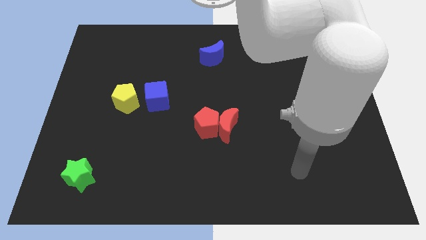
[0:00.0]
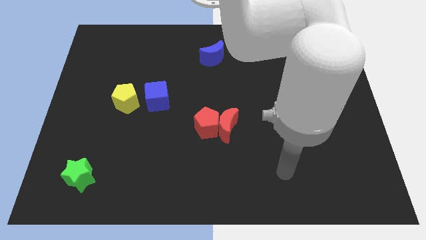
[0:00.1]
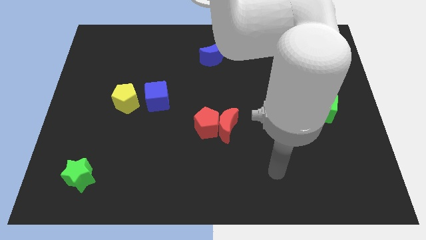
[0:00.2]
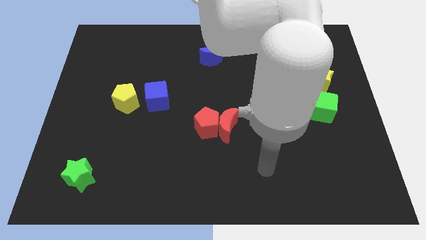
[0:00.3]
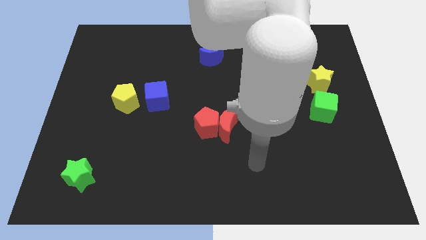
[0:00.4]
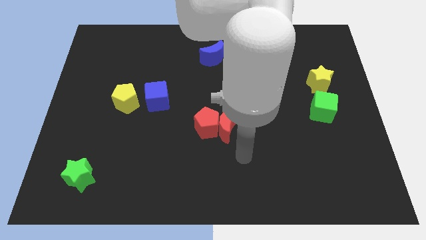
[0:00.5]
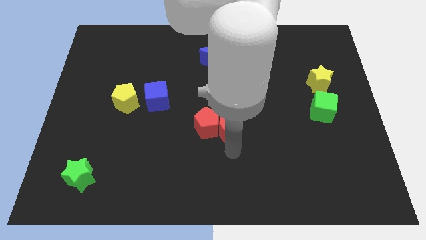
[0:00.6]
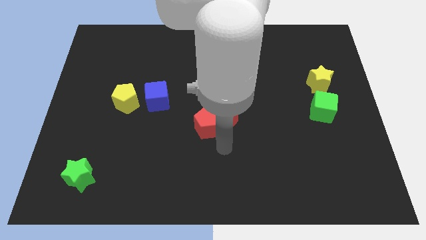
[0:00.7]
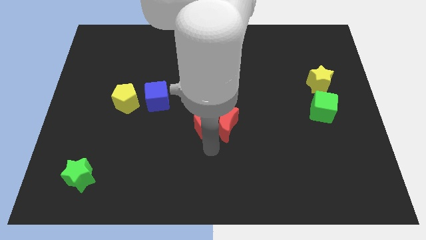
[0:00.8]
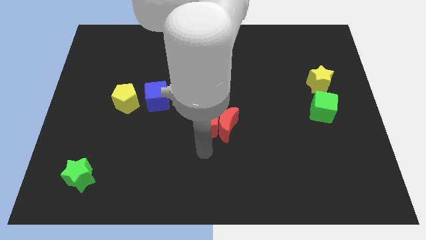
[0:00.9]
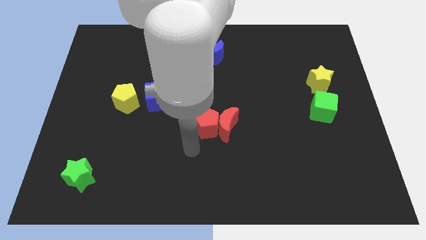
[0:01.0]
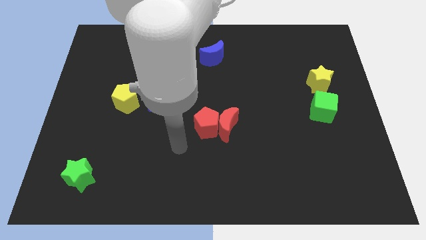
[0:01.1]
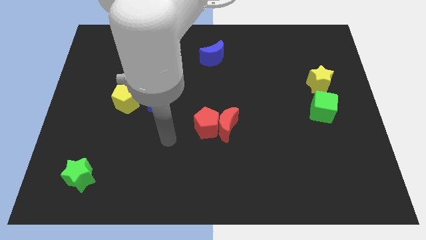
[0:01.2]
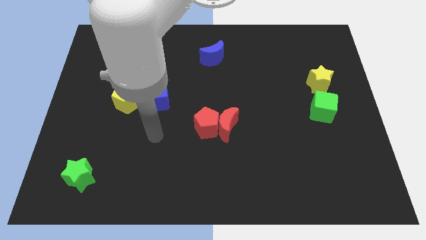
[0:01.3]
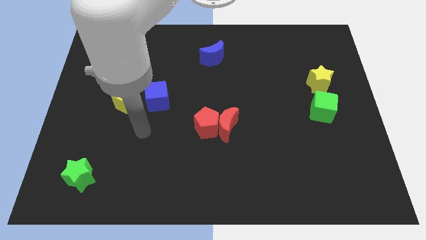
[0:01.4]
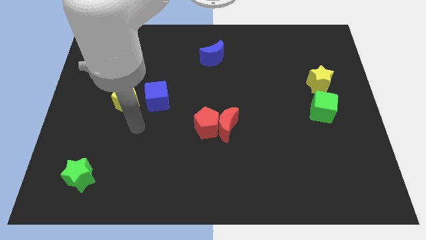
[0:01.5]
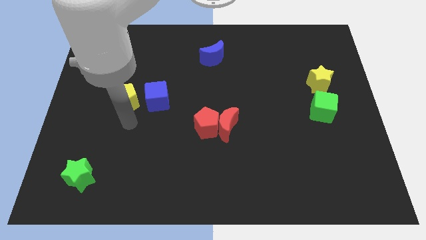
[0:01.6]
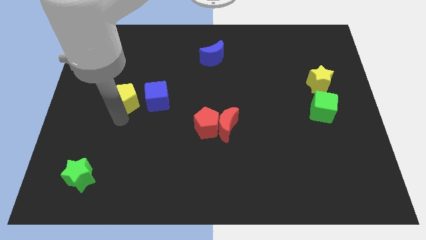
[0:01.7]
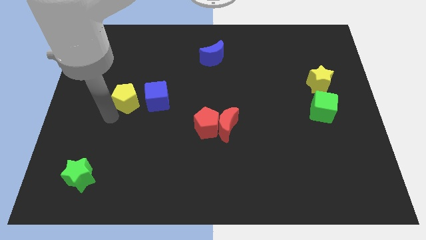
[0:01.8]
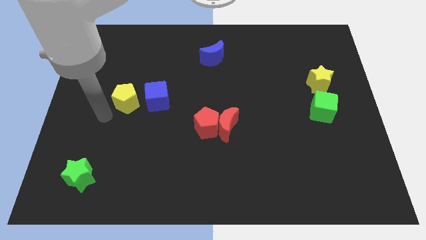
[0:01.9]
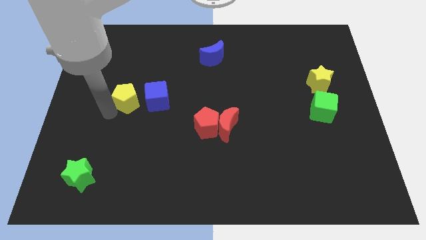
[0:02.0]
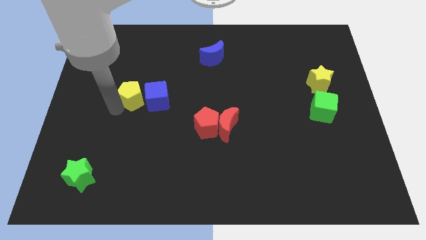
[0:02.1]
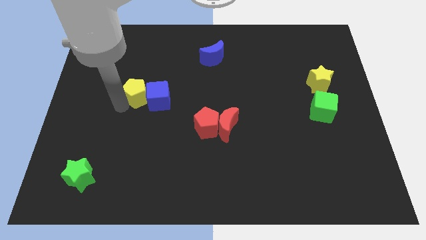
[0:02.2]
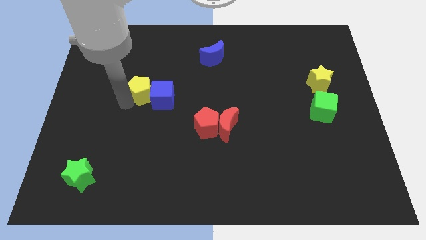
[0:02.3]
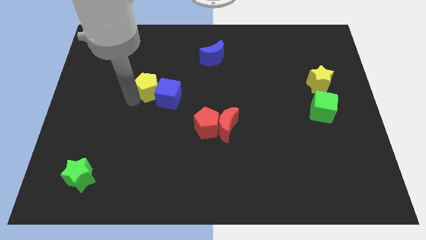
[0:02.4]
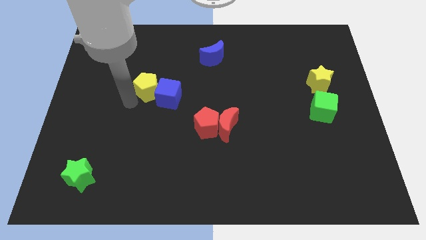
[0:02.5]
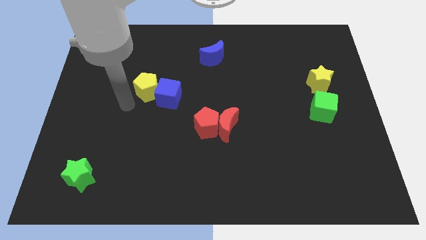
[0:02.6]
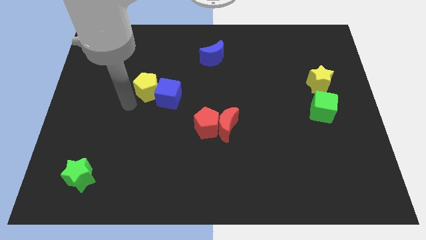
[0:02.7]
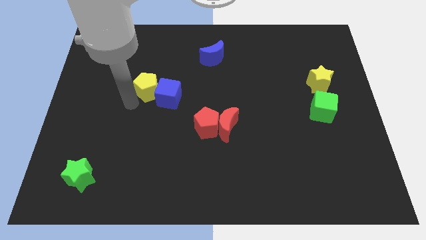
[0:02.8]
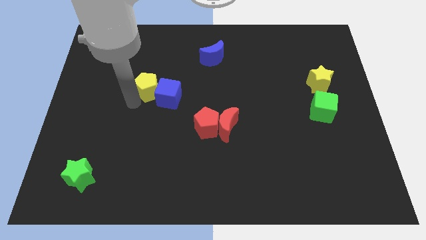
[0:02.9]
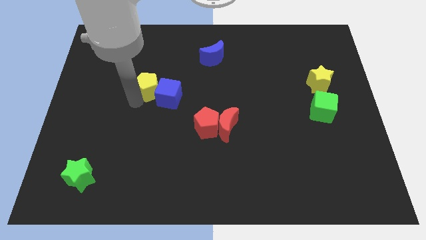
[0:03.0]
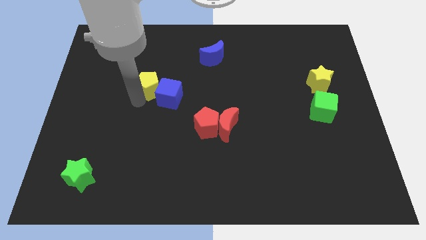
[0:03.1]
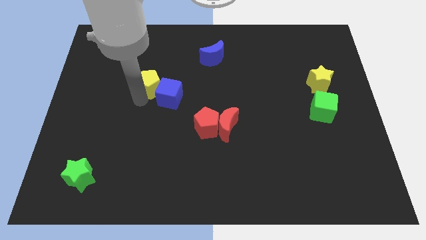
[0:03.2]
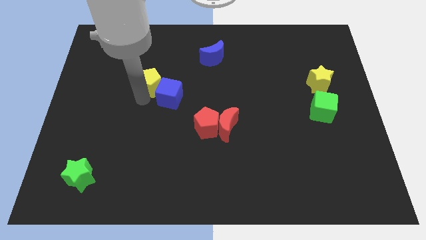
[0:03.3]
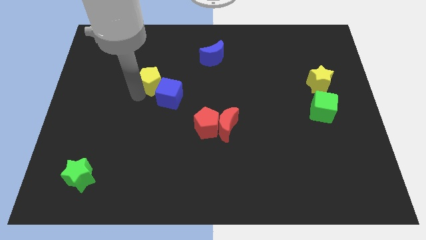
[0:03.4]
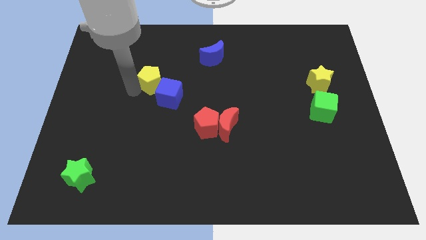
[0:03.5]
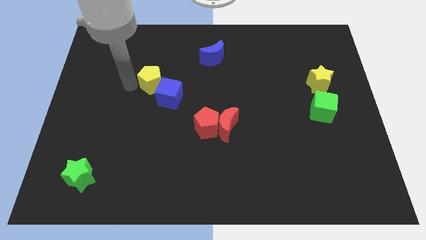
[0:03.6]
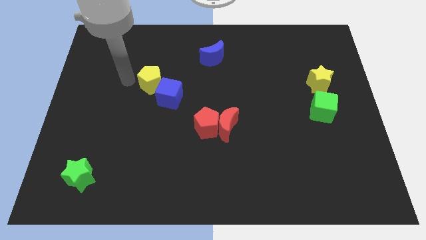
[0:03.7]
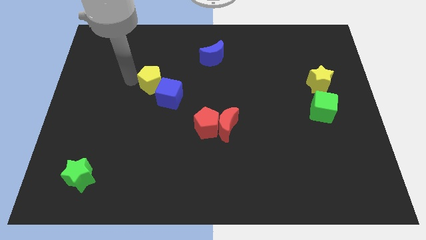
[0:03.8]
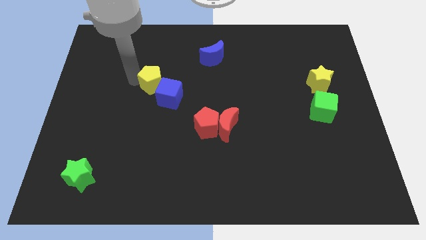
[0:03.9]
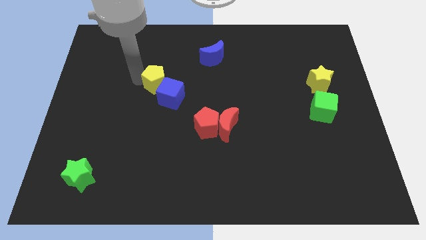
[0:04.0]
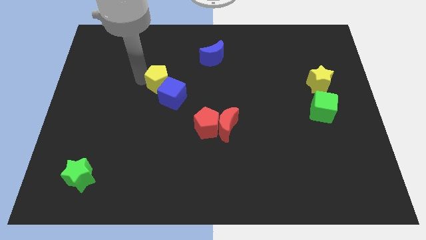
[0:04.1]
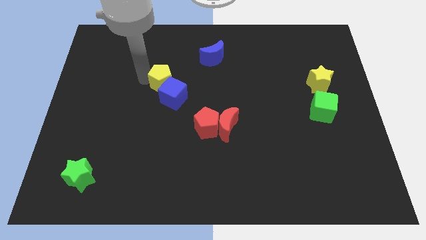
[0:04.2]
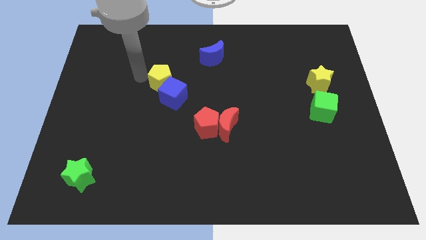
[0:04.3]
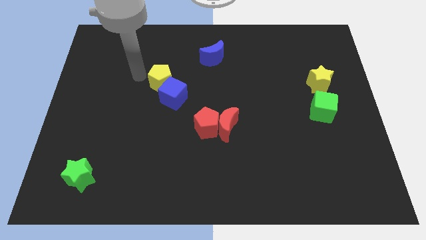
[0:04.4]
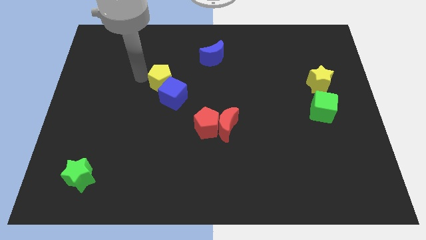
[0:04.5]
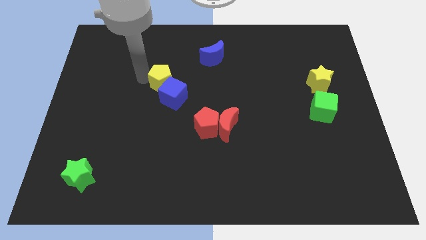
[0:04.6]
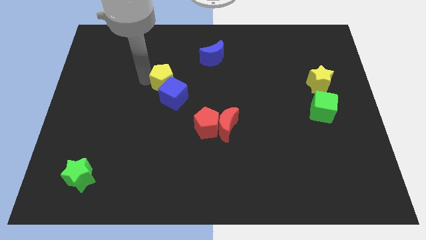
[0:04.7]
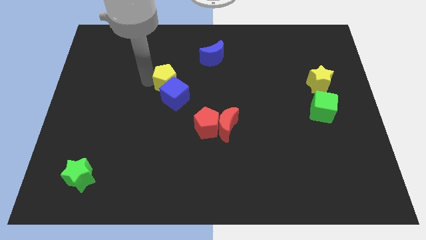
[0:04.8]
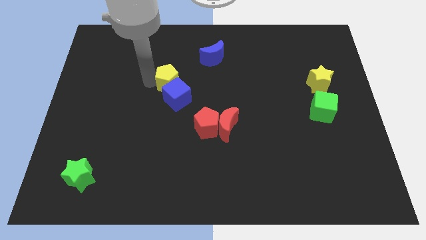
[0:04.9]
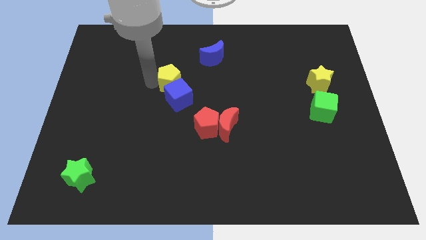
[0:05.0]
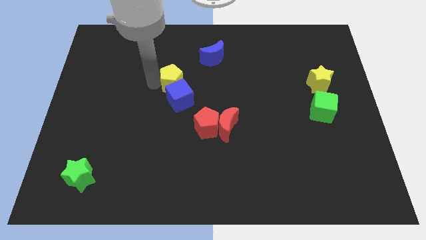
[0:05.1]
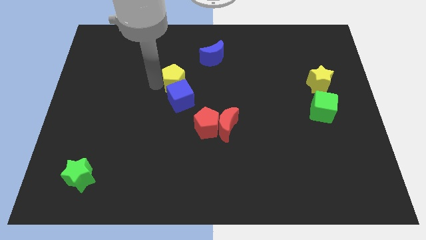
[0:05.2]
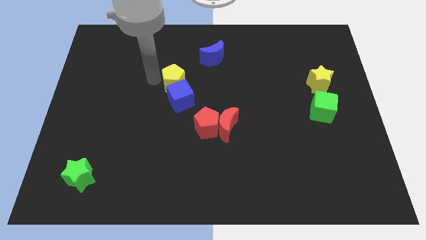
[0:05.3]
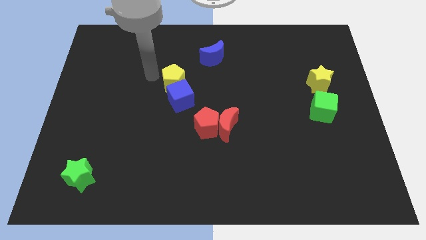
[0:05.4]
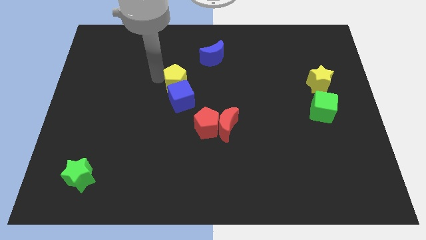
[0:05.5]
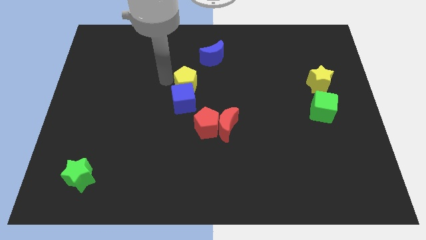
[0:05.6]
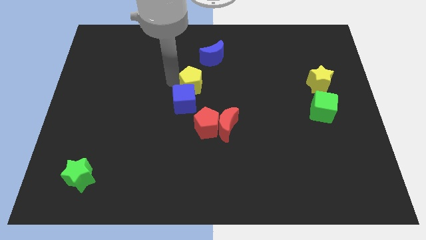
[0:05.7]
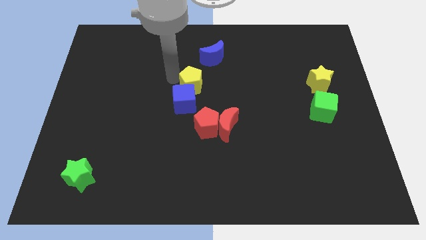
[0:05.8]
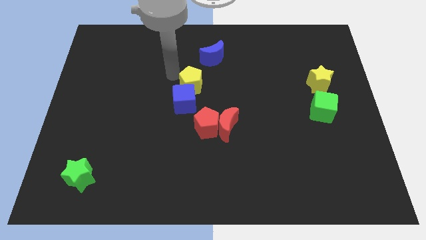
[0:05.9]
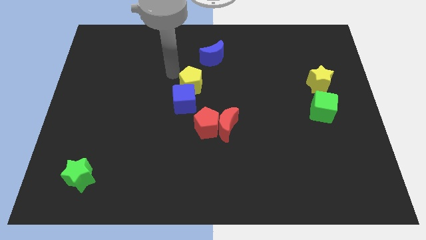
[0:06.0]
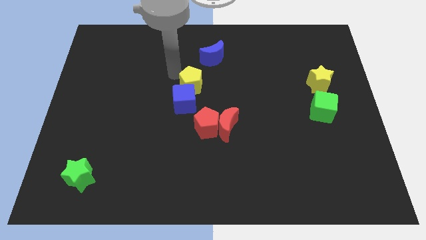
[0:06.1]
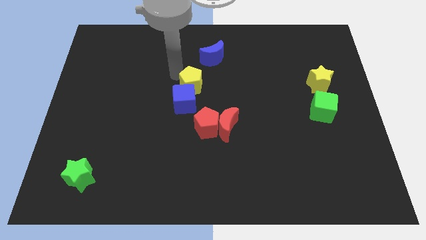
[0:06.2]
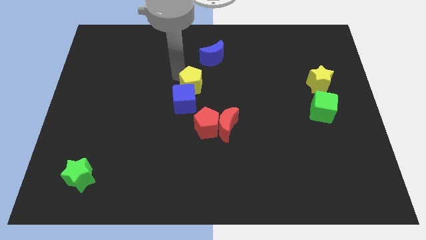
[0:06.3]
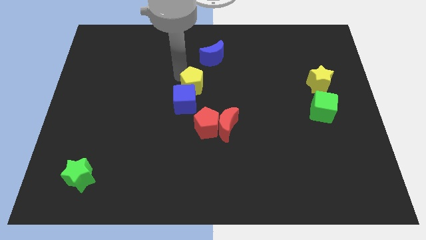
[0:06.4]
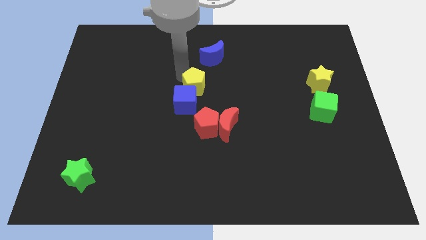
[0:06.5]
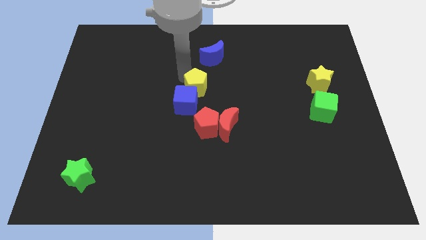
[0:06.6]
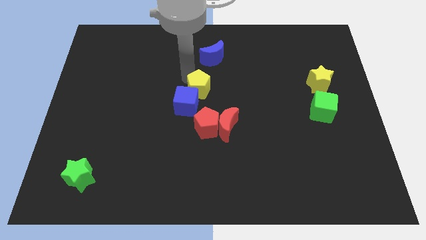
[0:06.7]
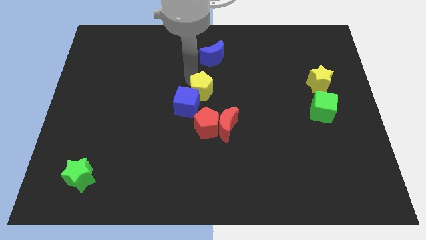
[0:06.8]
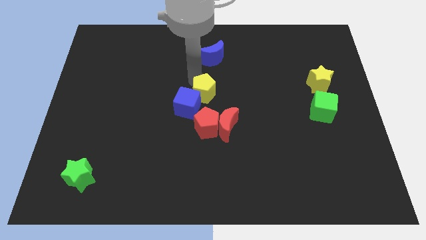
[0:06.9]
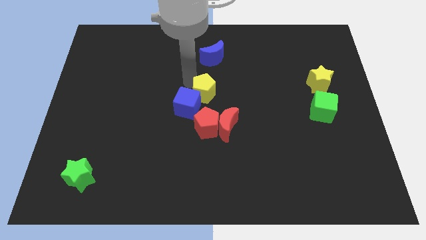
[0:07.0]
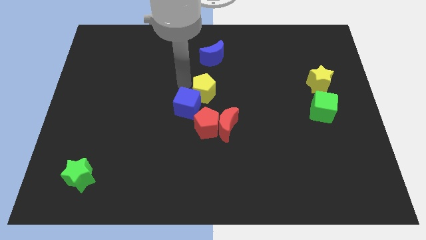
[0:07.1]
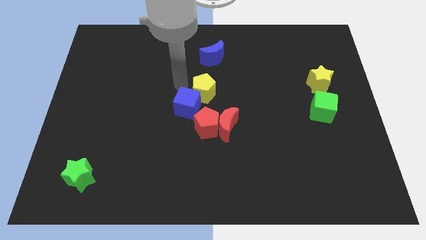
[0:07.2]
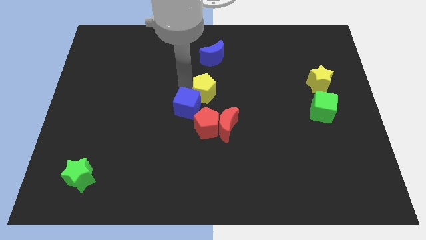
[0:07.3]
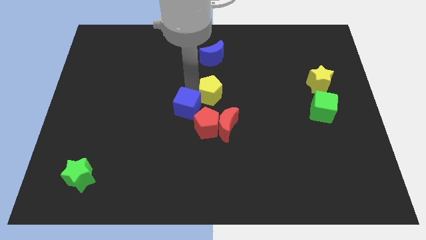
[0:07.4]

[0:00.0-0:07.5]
slide the yellow pentagon to the right

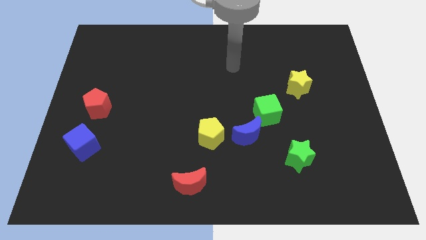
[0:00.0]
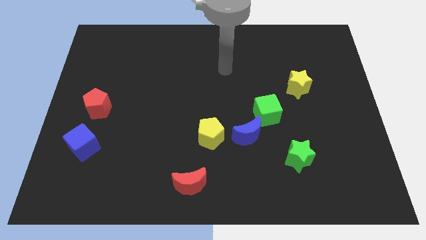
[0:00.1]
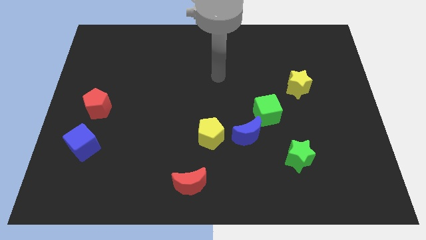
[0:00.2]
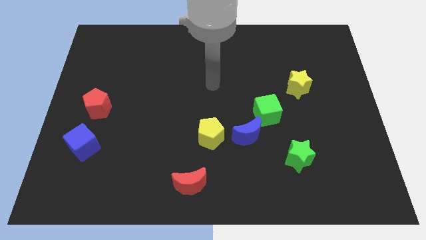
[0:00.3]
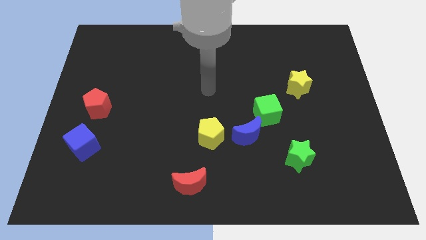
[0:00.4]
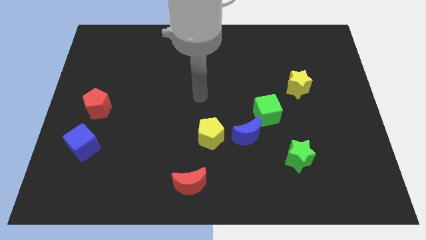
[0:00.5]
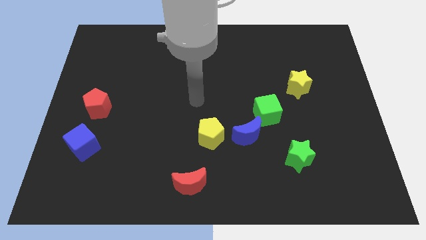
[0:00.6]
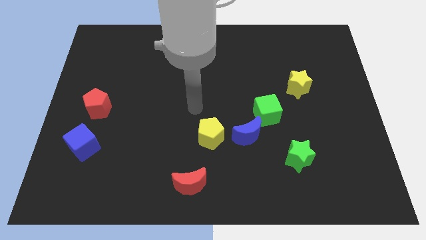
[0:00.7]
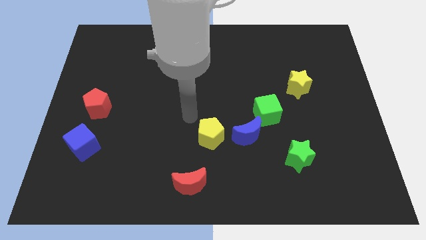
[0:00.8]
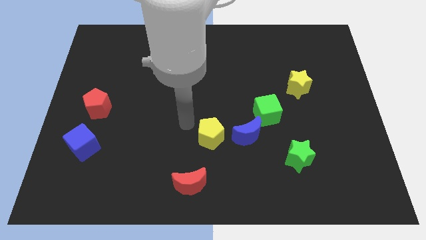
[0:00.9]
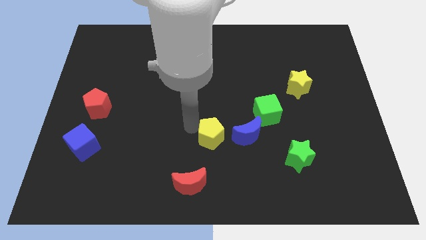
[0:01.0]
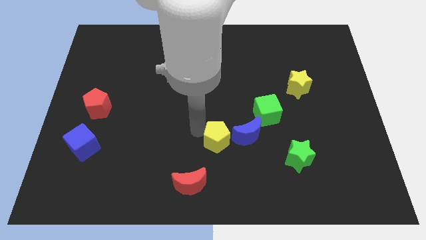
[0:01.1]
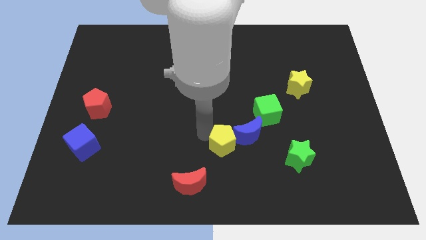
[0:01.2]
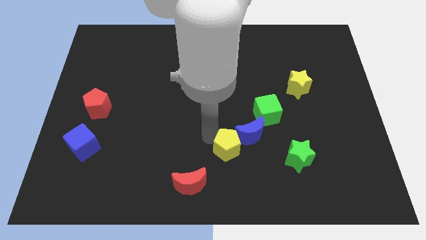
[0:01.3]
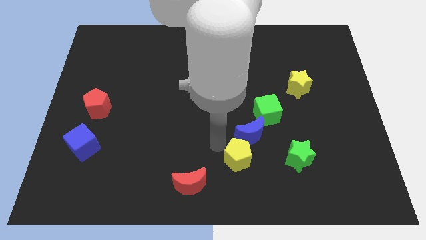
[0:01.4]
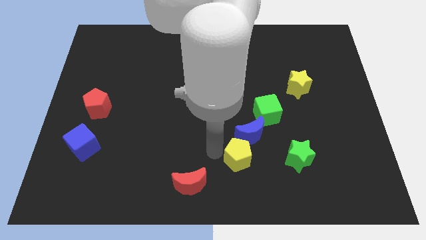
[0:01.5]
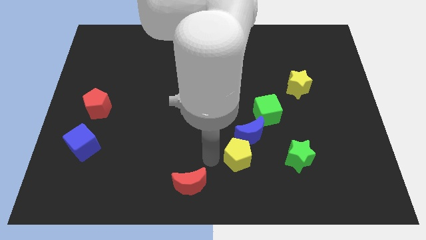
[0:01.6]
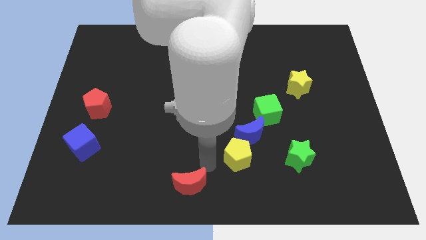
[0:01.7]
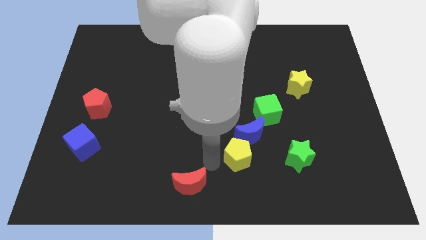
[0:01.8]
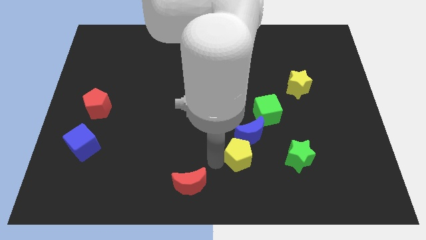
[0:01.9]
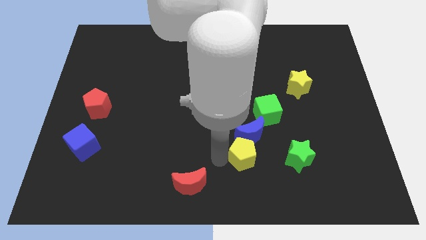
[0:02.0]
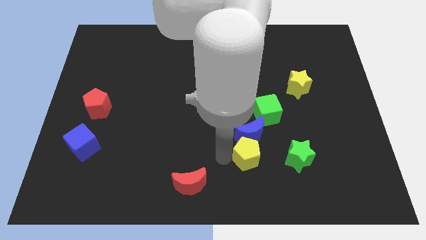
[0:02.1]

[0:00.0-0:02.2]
push the yellow pentagon right somewhat
